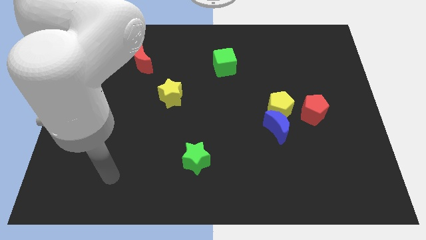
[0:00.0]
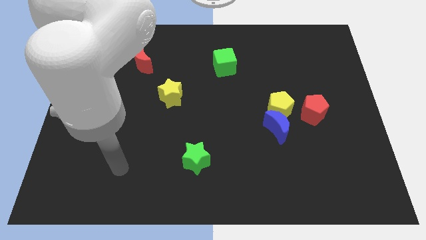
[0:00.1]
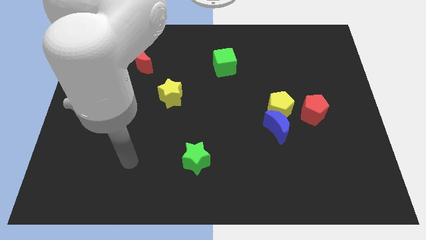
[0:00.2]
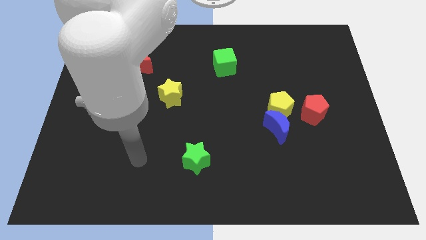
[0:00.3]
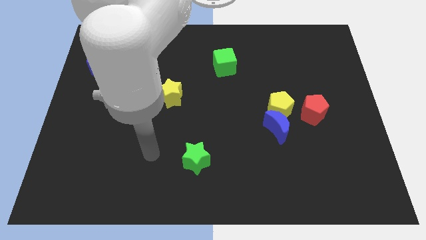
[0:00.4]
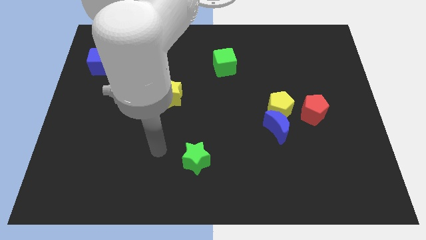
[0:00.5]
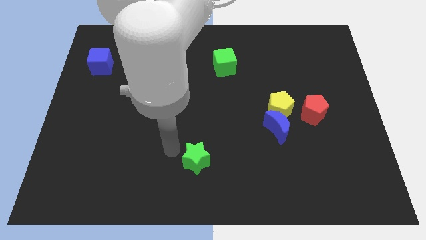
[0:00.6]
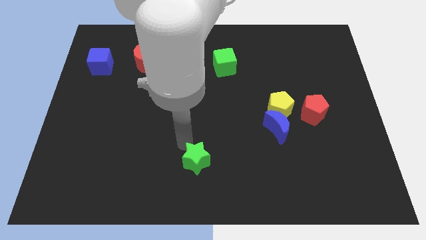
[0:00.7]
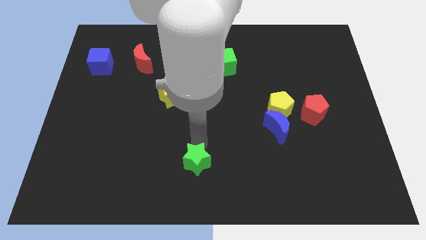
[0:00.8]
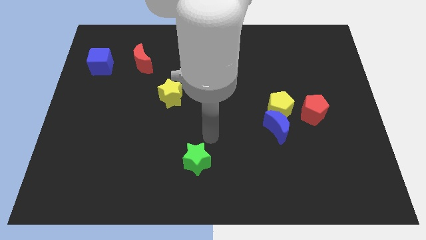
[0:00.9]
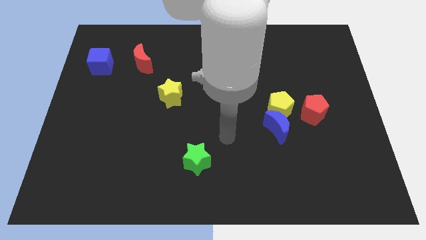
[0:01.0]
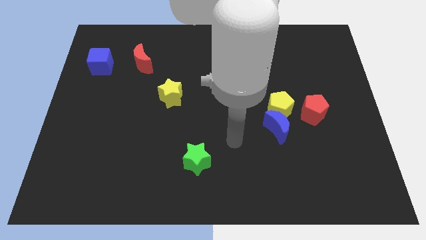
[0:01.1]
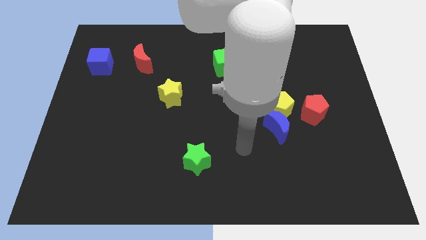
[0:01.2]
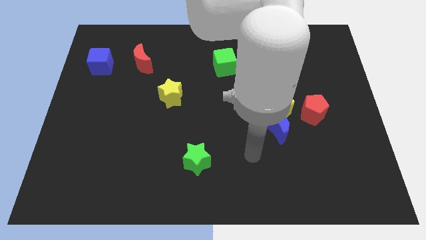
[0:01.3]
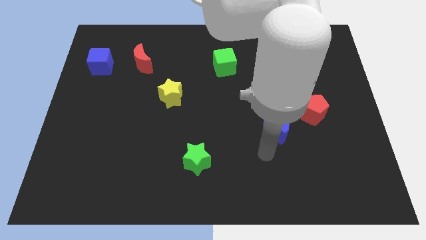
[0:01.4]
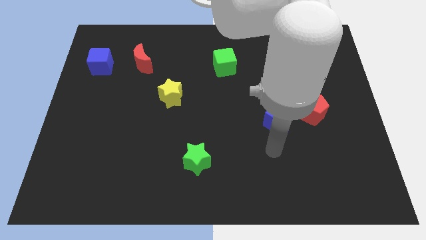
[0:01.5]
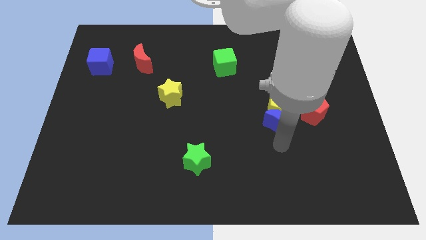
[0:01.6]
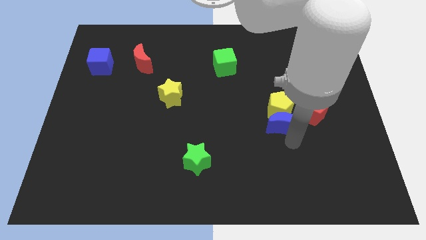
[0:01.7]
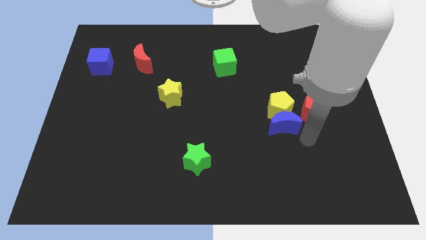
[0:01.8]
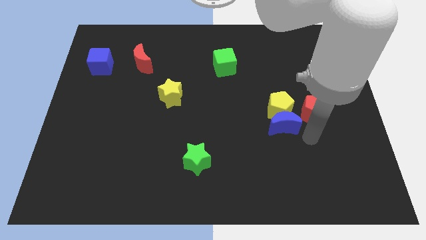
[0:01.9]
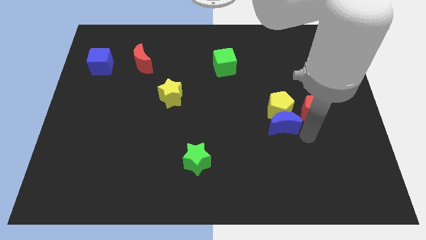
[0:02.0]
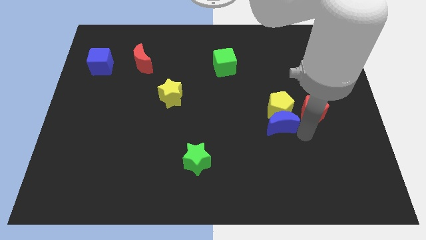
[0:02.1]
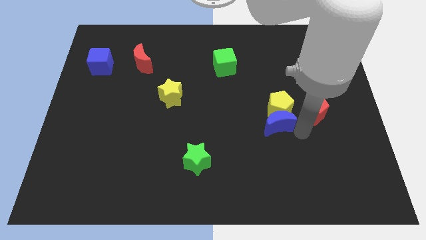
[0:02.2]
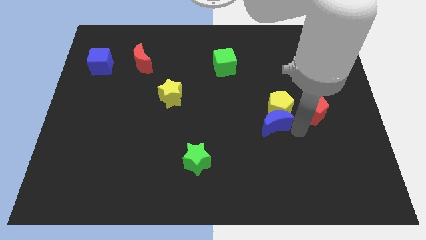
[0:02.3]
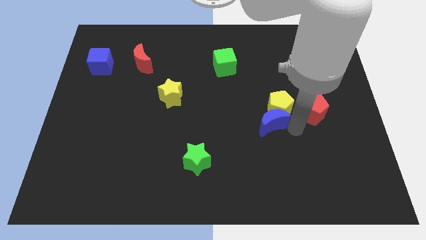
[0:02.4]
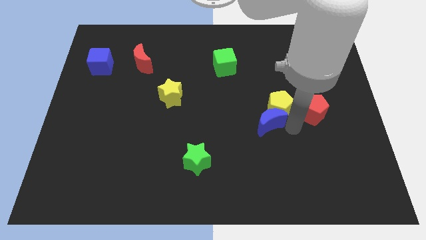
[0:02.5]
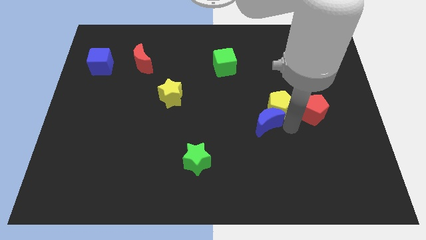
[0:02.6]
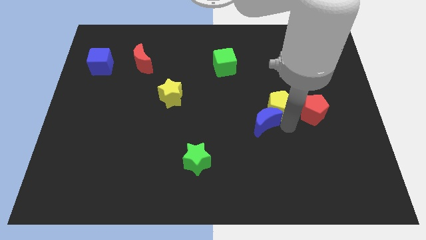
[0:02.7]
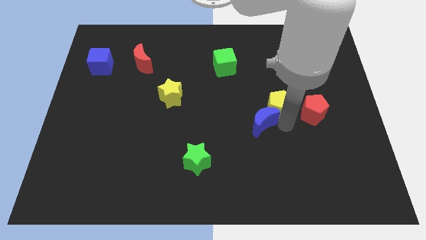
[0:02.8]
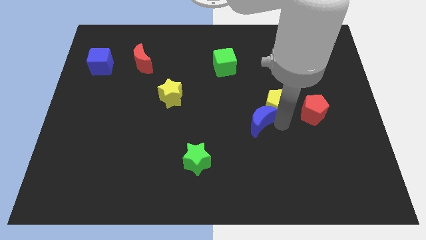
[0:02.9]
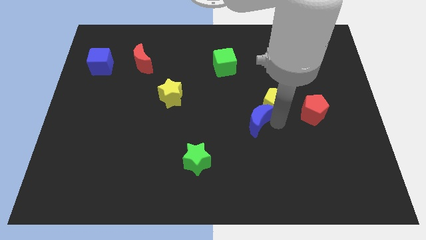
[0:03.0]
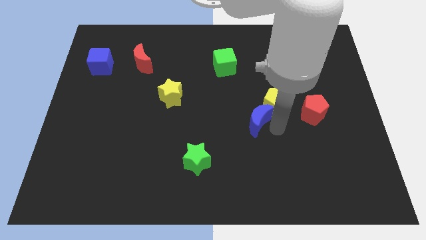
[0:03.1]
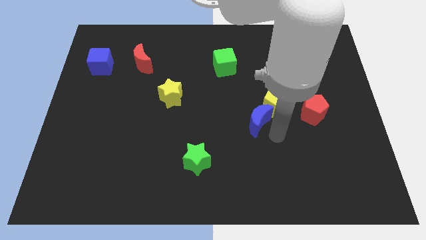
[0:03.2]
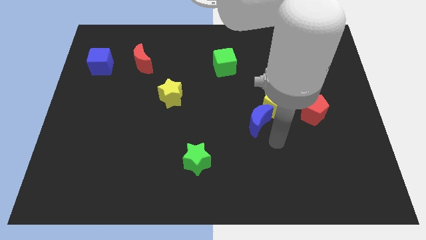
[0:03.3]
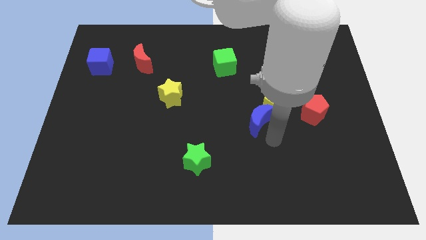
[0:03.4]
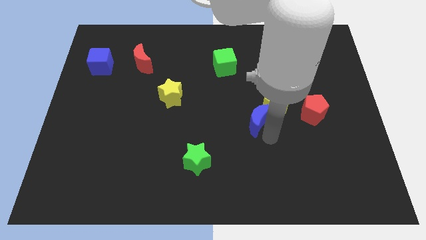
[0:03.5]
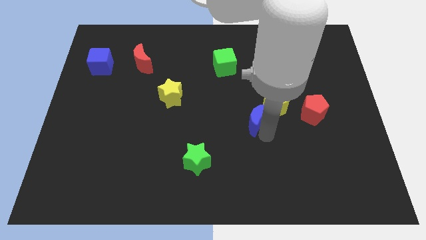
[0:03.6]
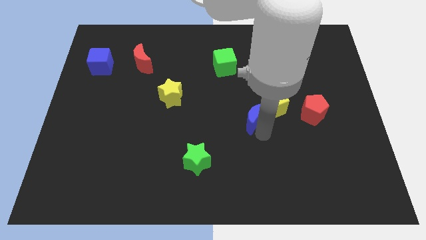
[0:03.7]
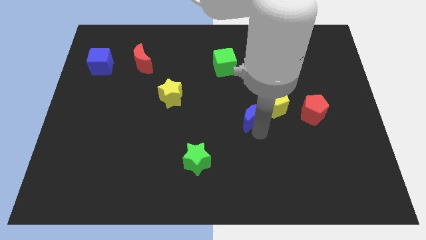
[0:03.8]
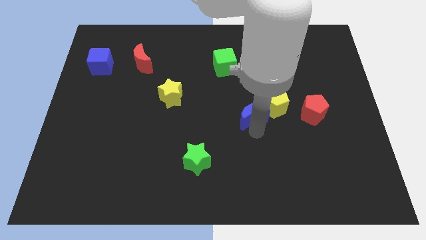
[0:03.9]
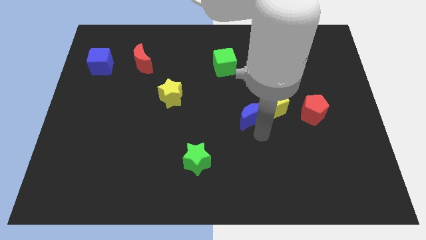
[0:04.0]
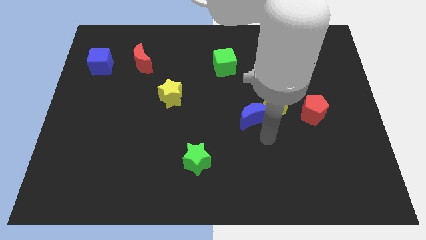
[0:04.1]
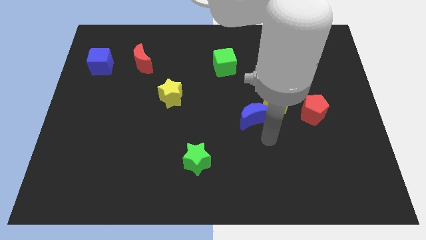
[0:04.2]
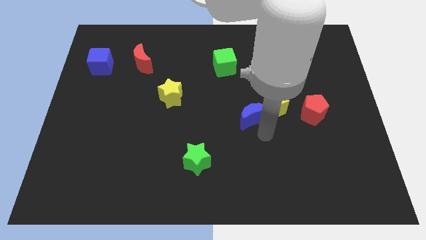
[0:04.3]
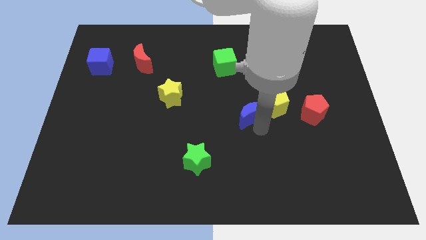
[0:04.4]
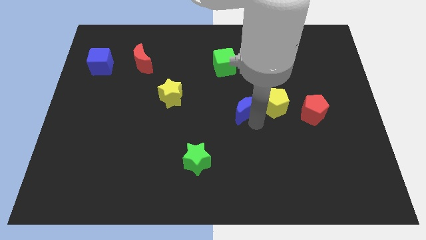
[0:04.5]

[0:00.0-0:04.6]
slightly move the blue moon up and to the left diagonally

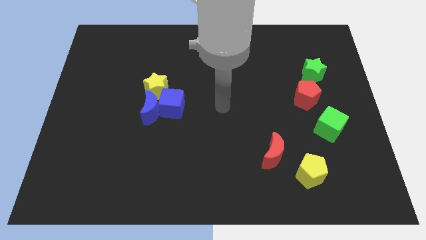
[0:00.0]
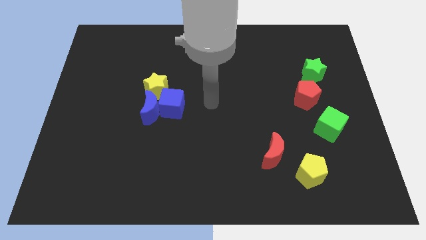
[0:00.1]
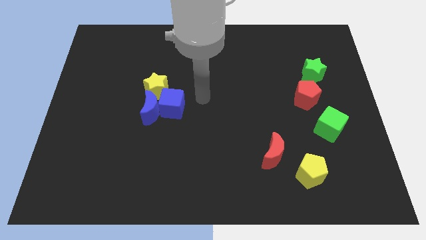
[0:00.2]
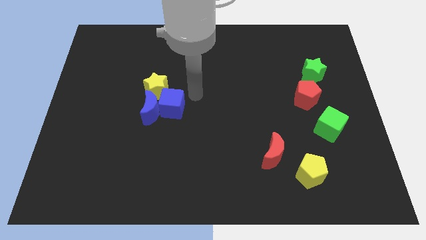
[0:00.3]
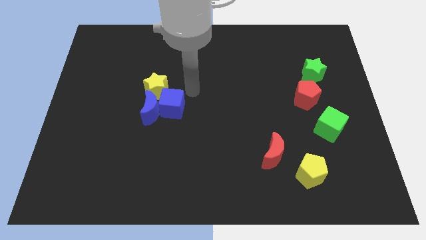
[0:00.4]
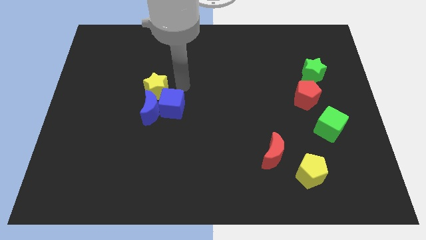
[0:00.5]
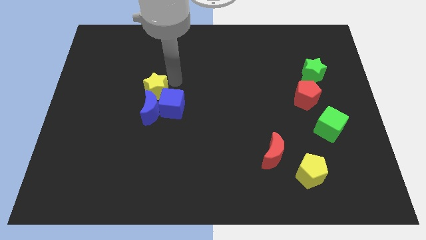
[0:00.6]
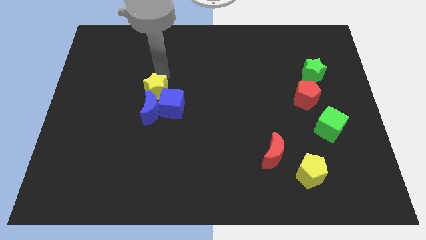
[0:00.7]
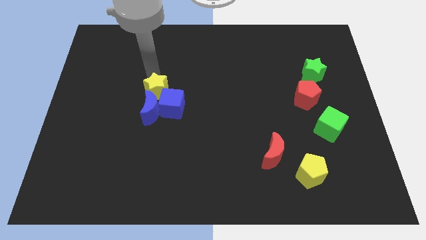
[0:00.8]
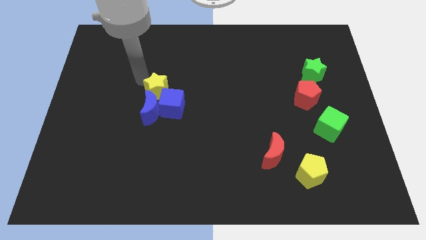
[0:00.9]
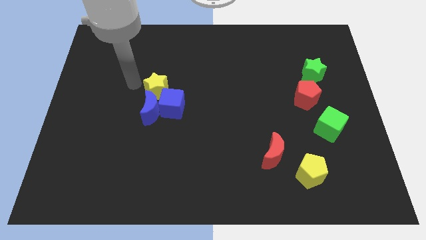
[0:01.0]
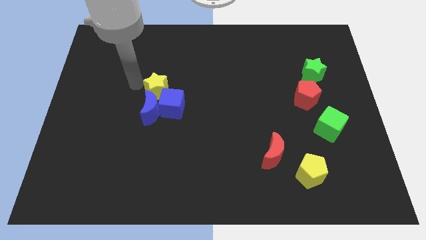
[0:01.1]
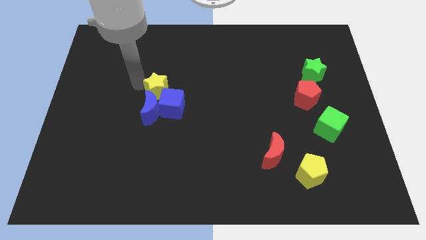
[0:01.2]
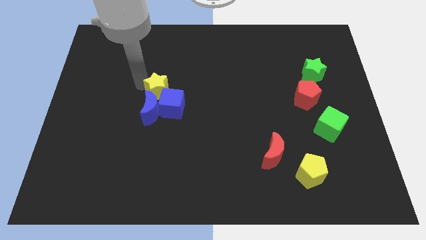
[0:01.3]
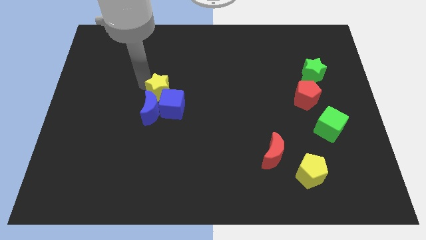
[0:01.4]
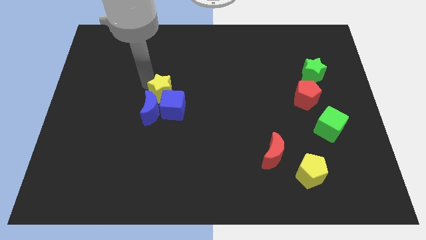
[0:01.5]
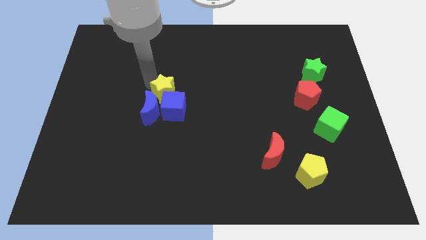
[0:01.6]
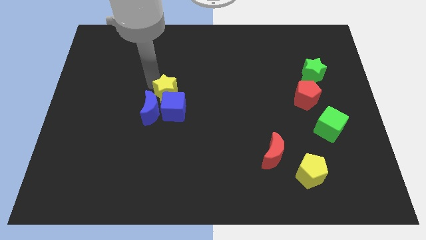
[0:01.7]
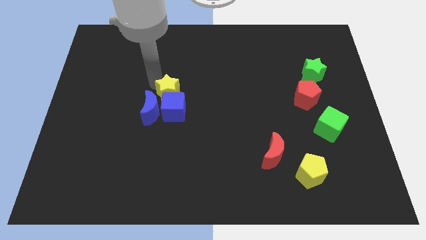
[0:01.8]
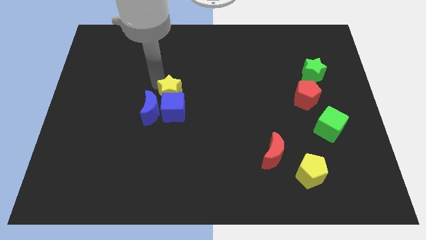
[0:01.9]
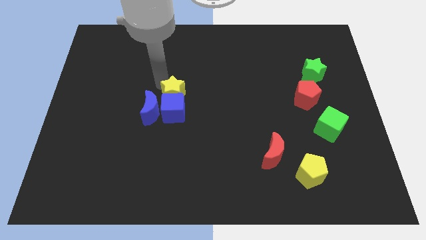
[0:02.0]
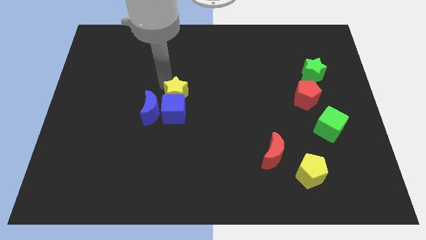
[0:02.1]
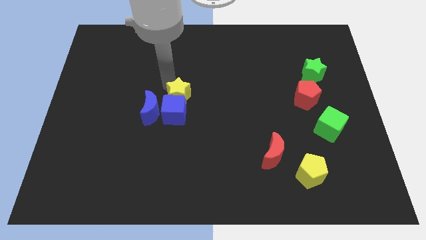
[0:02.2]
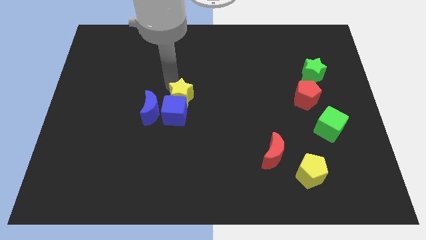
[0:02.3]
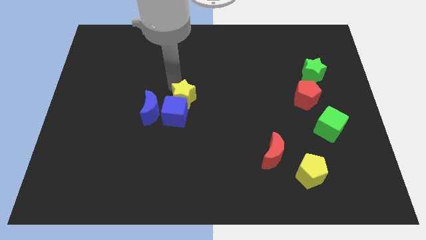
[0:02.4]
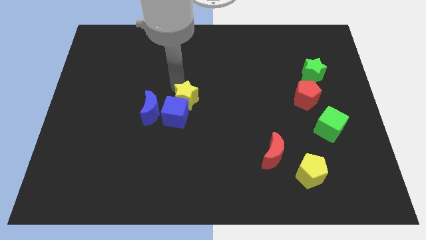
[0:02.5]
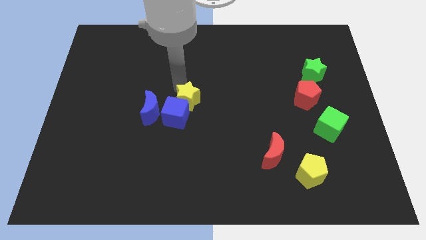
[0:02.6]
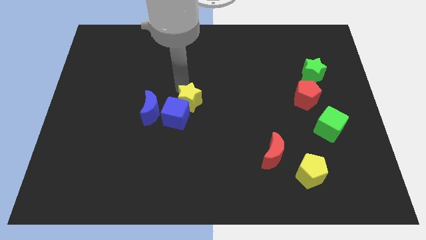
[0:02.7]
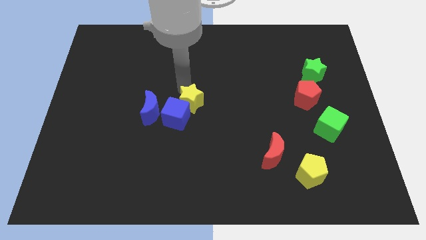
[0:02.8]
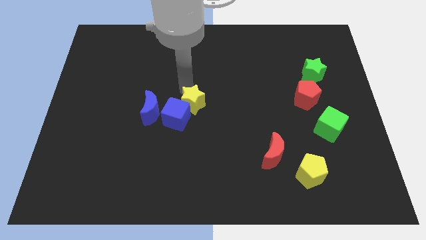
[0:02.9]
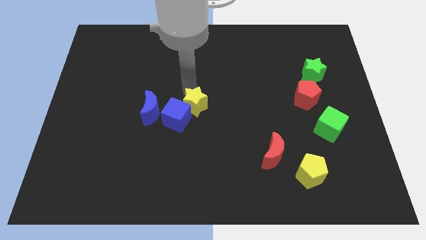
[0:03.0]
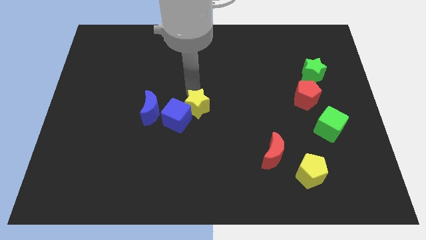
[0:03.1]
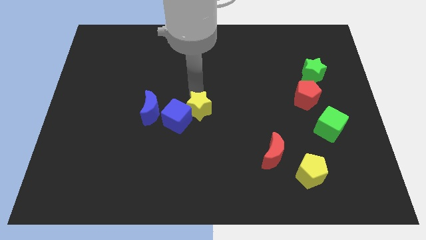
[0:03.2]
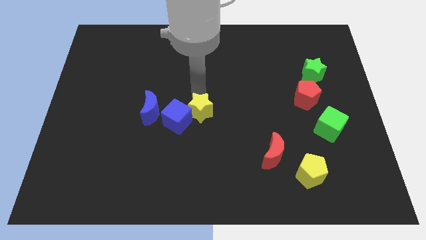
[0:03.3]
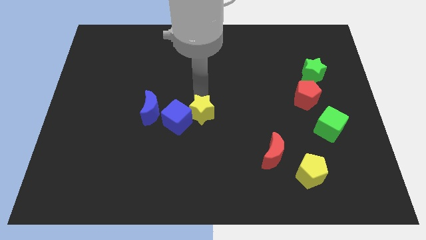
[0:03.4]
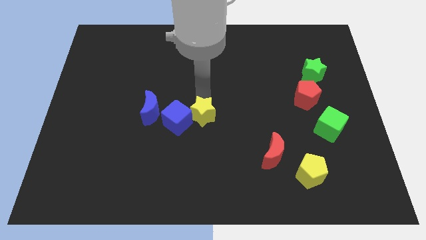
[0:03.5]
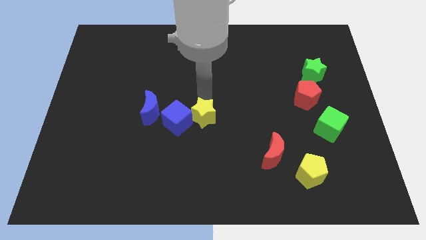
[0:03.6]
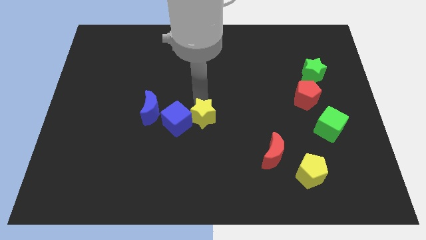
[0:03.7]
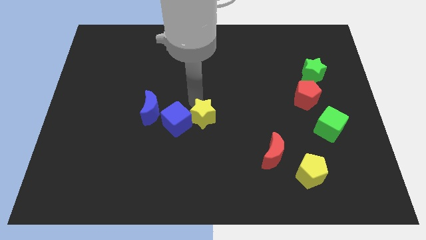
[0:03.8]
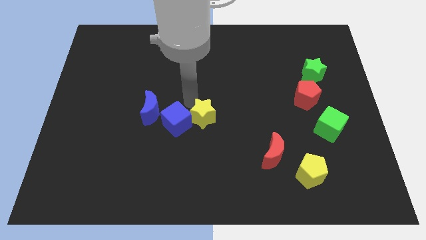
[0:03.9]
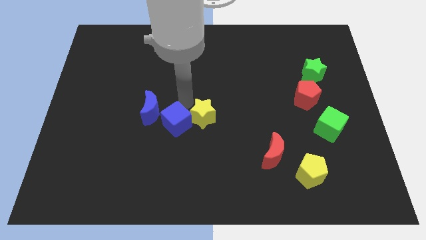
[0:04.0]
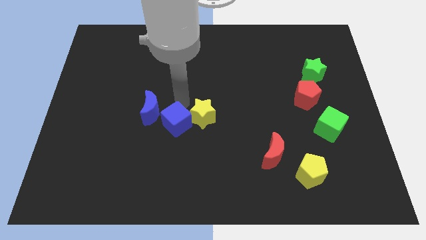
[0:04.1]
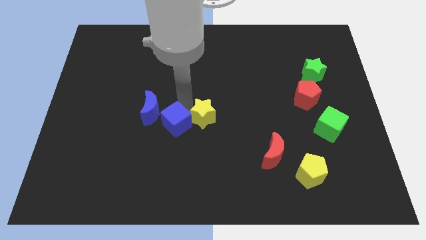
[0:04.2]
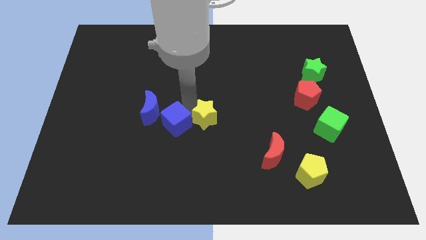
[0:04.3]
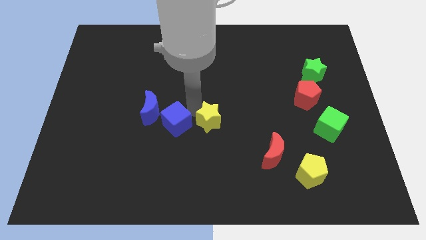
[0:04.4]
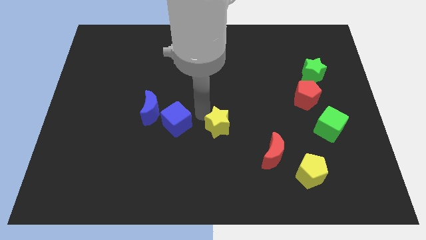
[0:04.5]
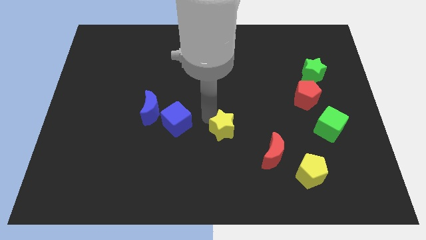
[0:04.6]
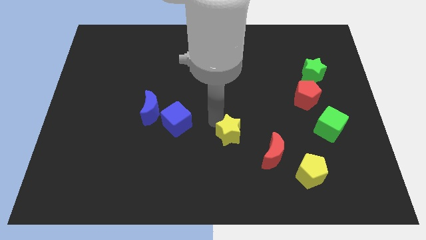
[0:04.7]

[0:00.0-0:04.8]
slide the yellow star down and to the right diagonally
